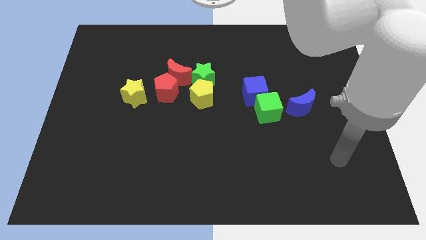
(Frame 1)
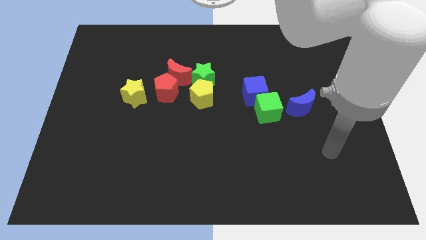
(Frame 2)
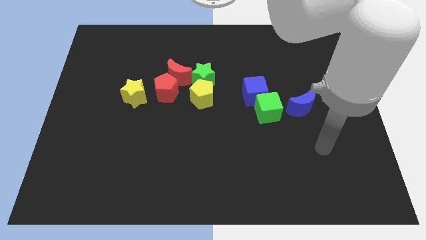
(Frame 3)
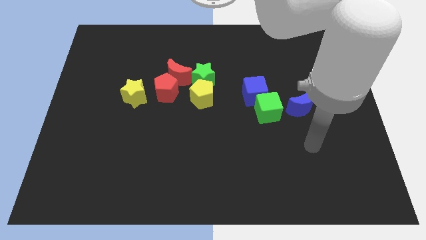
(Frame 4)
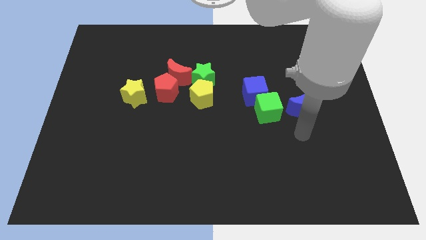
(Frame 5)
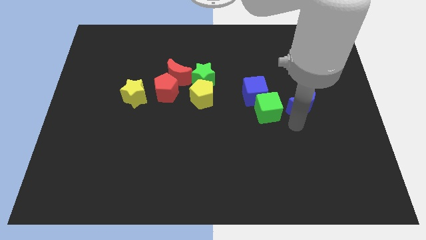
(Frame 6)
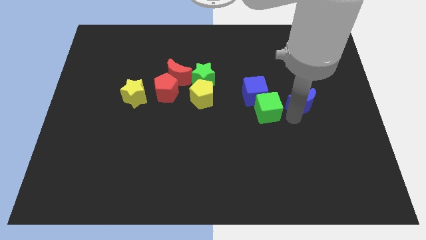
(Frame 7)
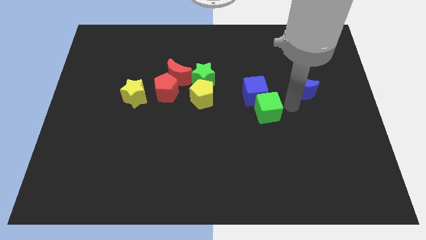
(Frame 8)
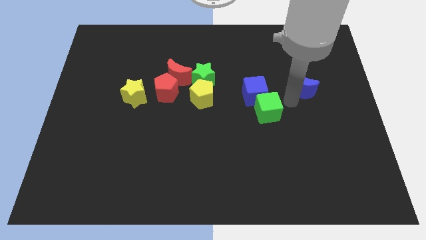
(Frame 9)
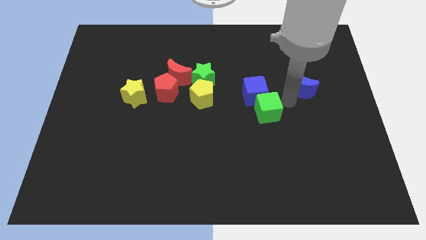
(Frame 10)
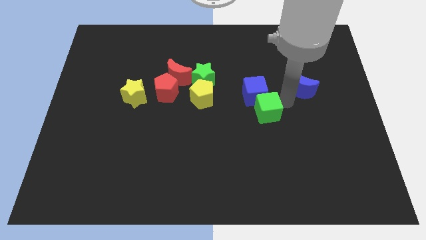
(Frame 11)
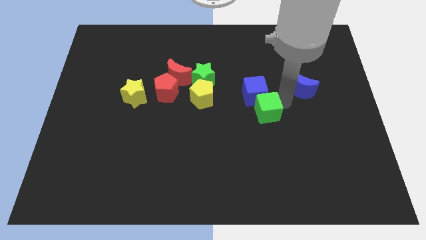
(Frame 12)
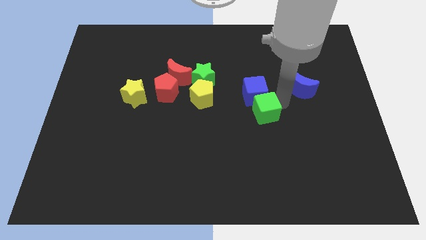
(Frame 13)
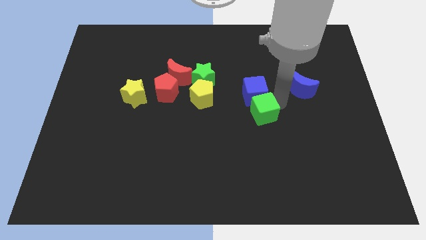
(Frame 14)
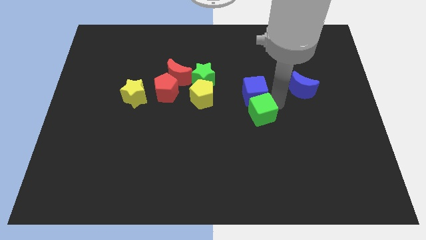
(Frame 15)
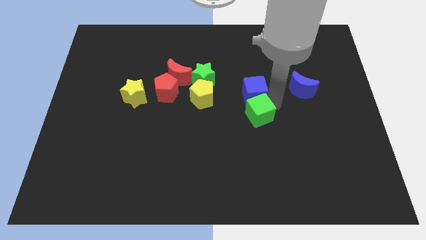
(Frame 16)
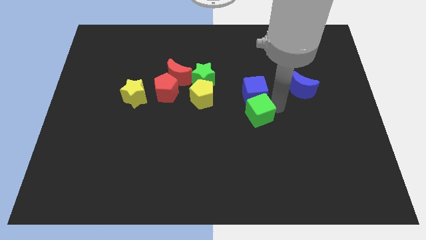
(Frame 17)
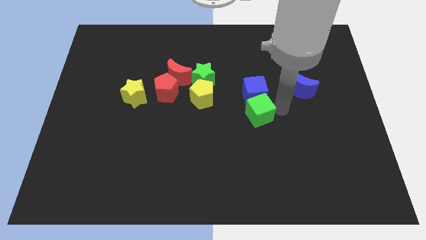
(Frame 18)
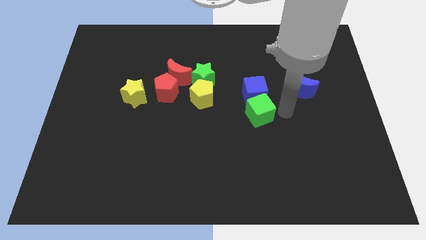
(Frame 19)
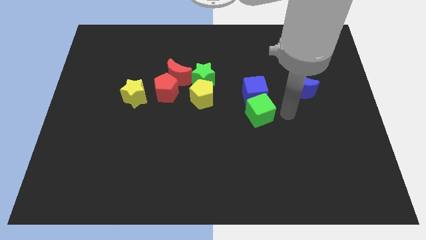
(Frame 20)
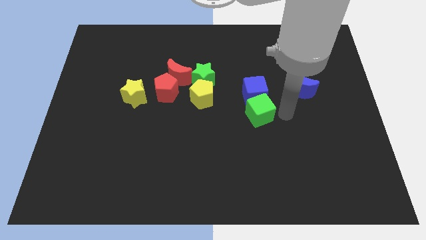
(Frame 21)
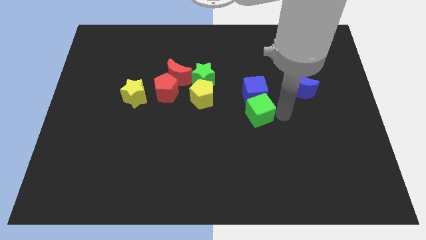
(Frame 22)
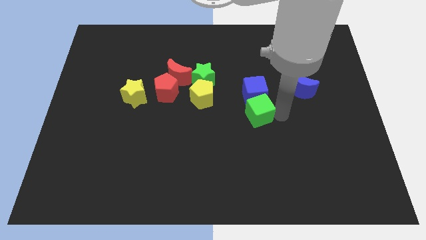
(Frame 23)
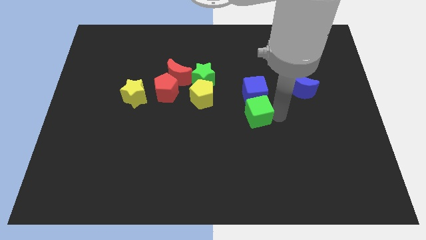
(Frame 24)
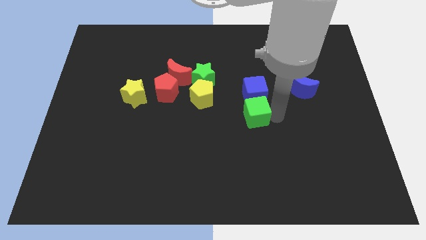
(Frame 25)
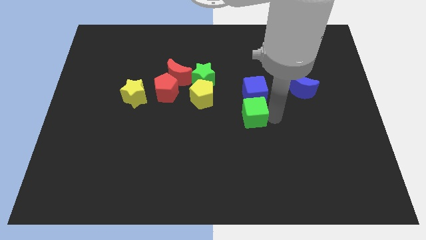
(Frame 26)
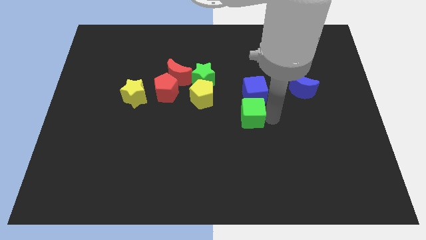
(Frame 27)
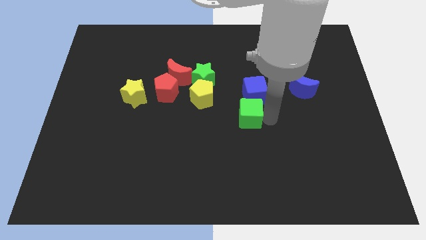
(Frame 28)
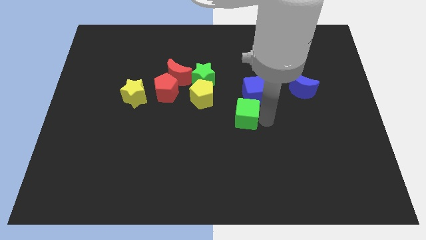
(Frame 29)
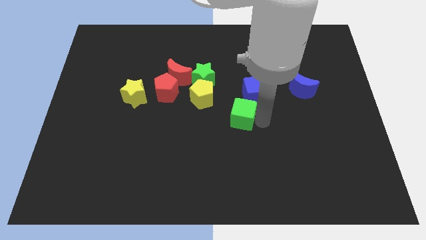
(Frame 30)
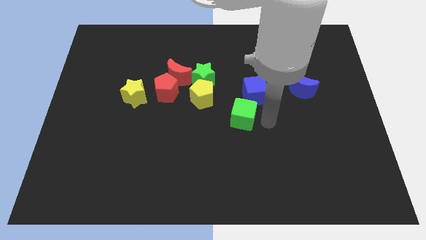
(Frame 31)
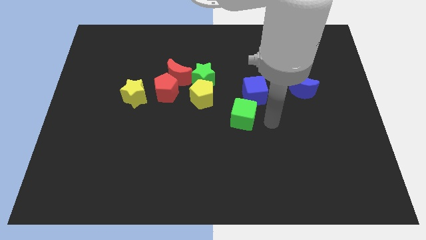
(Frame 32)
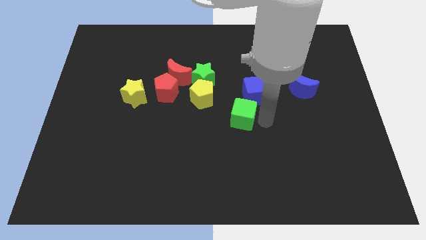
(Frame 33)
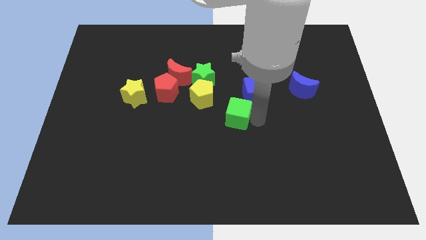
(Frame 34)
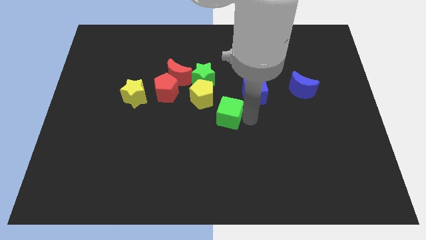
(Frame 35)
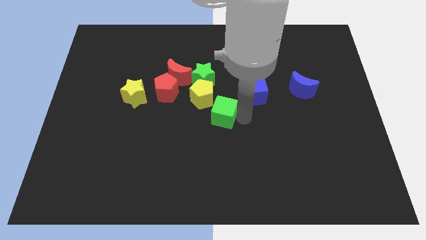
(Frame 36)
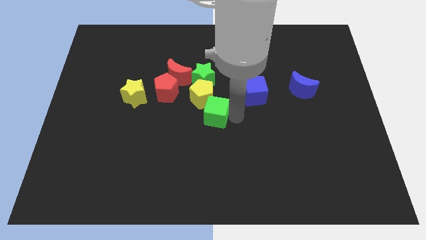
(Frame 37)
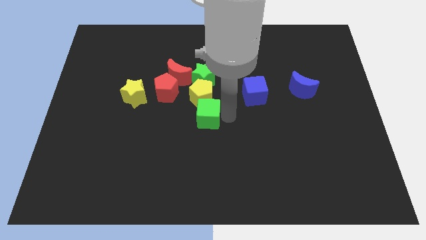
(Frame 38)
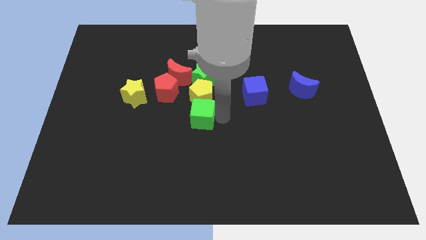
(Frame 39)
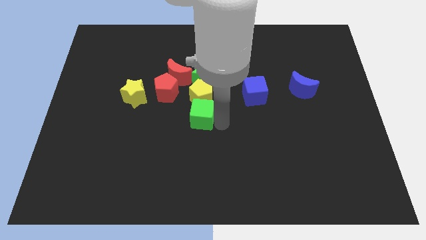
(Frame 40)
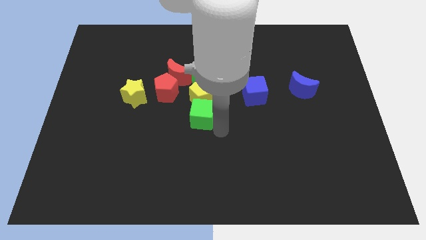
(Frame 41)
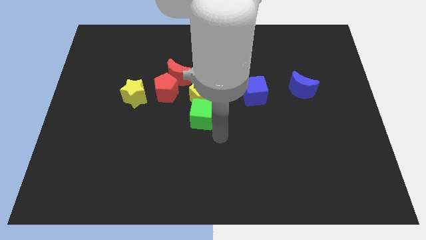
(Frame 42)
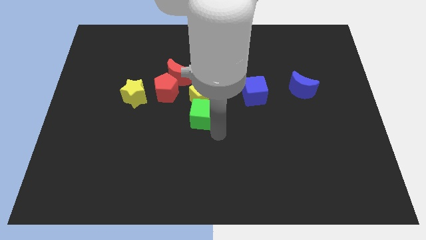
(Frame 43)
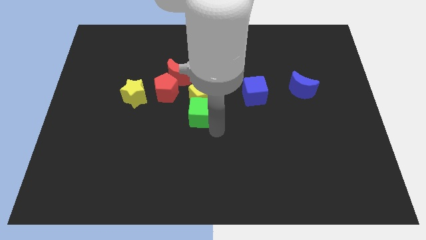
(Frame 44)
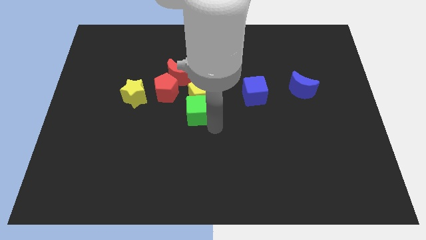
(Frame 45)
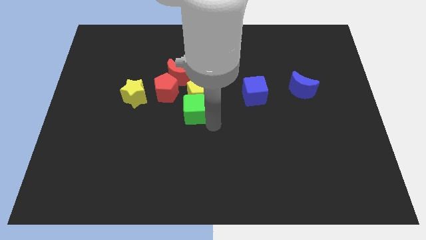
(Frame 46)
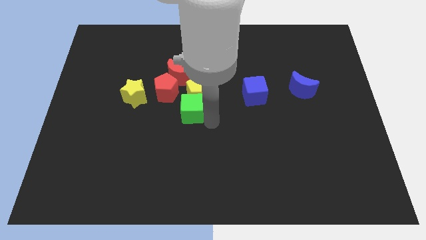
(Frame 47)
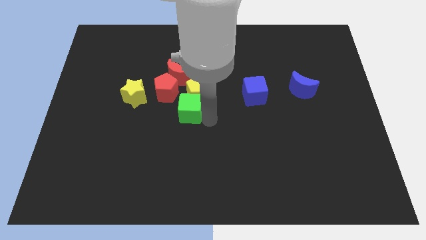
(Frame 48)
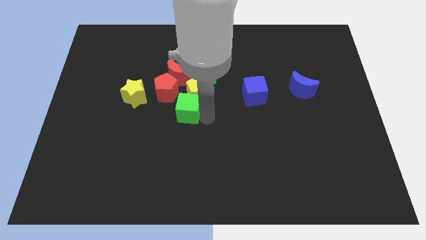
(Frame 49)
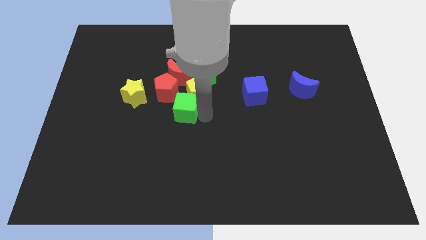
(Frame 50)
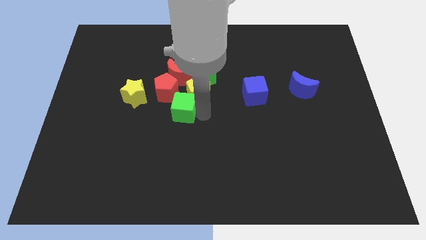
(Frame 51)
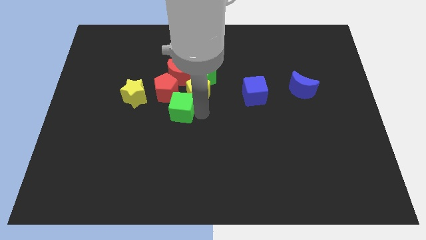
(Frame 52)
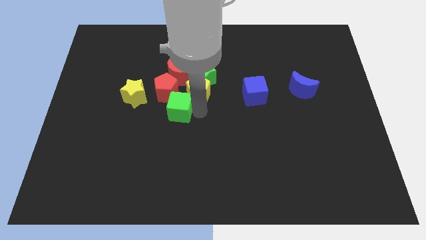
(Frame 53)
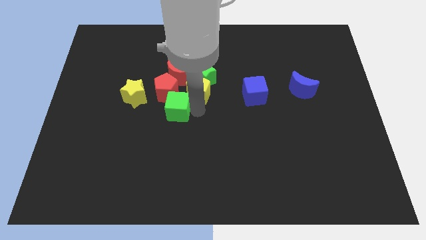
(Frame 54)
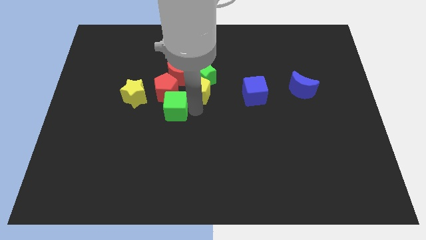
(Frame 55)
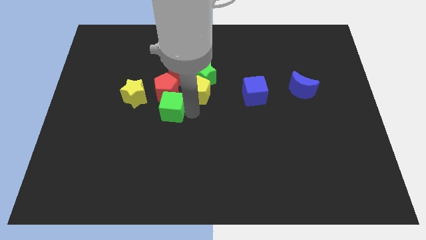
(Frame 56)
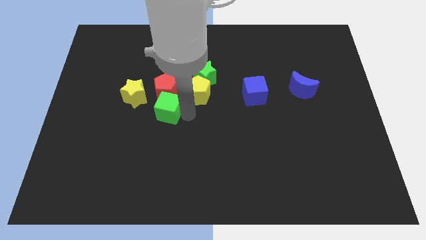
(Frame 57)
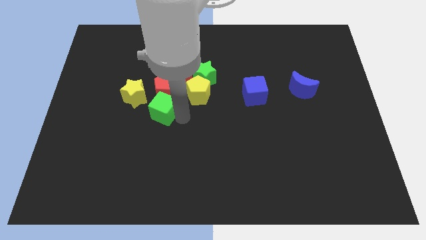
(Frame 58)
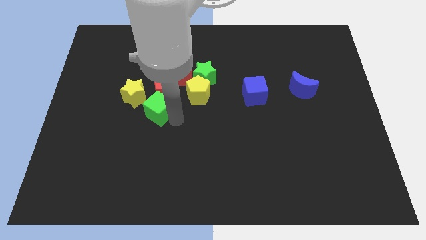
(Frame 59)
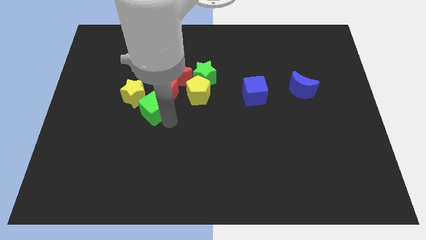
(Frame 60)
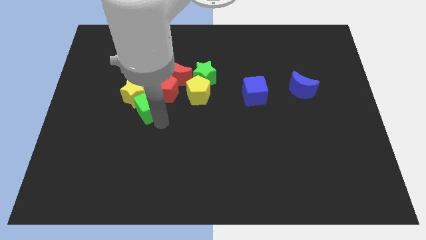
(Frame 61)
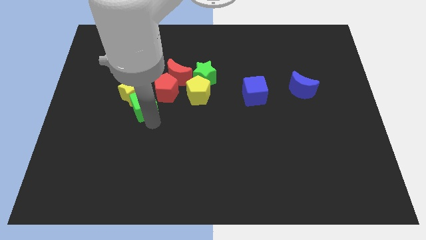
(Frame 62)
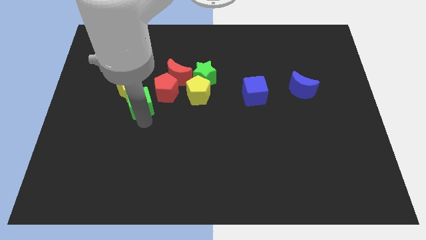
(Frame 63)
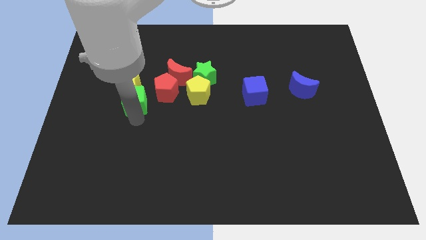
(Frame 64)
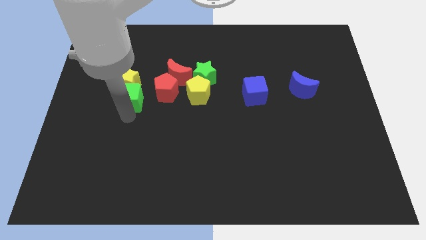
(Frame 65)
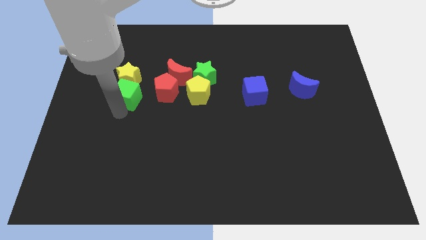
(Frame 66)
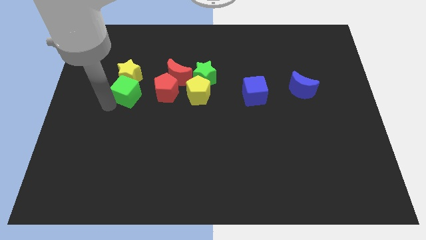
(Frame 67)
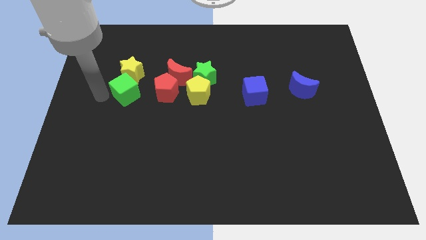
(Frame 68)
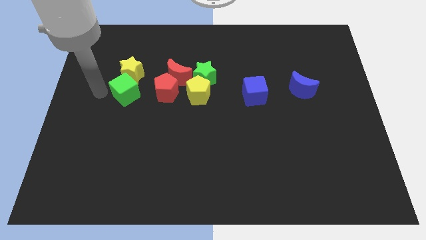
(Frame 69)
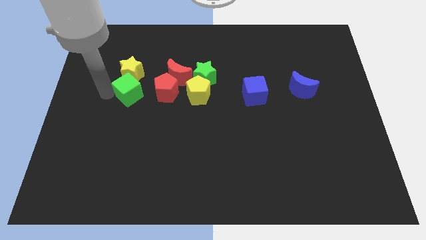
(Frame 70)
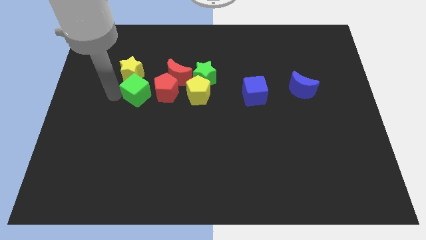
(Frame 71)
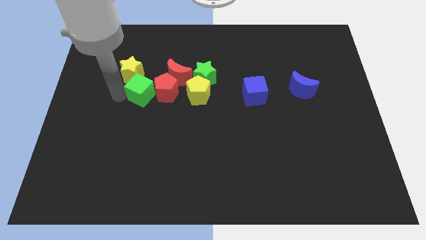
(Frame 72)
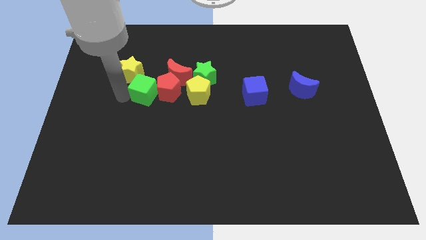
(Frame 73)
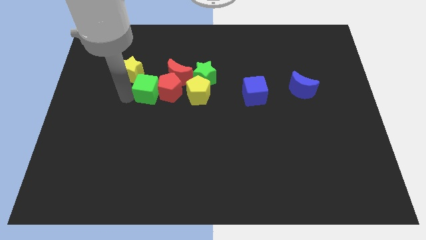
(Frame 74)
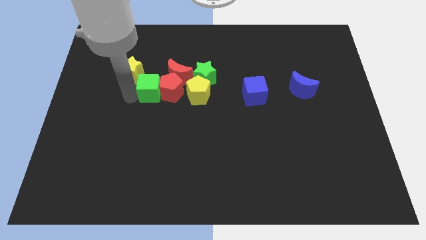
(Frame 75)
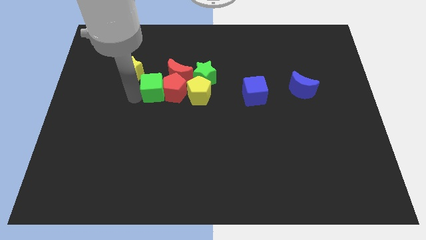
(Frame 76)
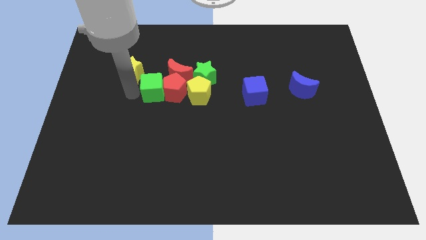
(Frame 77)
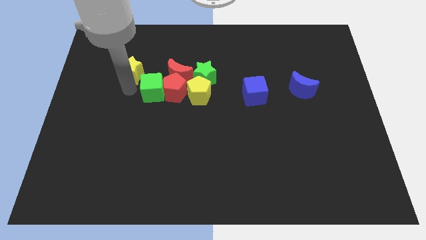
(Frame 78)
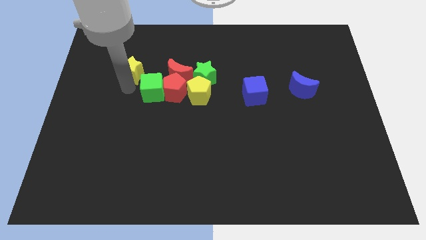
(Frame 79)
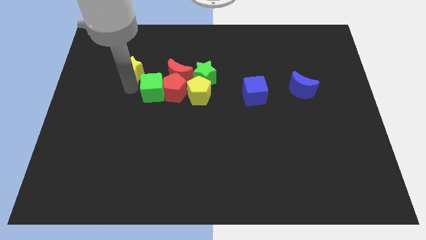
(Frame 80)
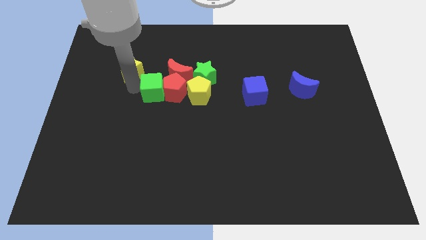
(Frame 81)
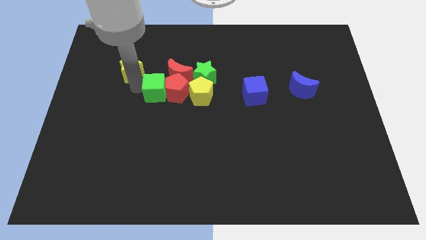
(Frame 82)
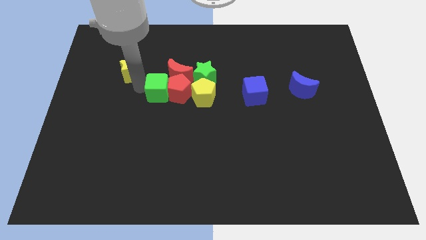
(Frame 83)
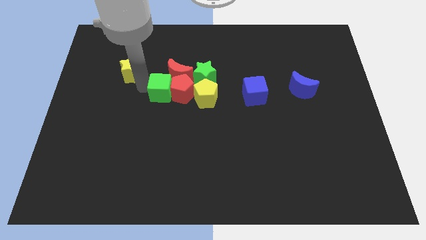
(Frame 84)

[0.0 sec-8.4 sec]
put the green cube next to the red moon
